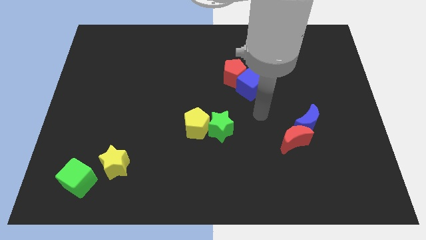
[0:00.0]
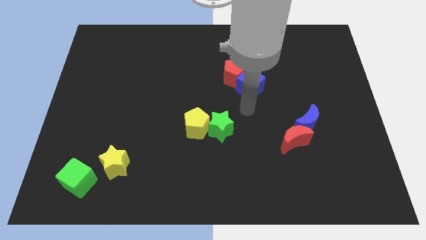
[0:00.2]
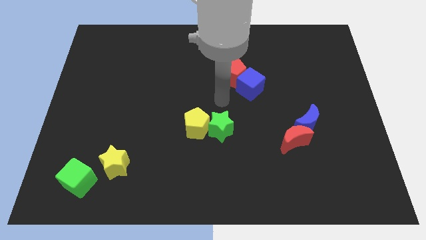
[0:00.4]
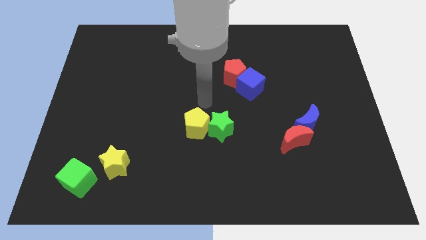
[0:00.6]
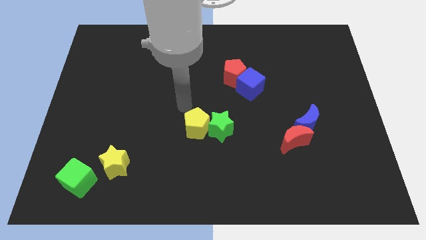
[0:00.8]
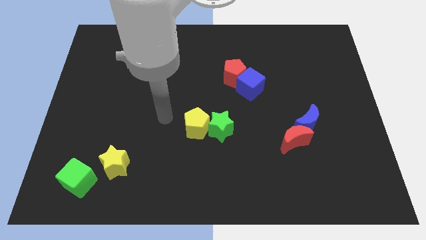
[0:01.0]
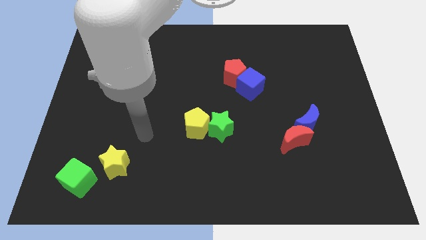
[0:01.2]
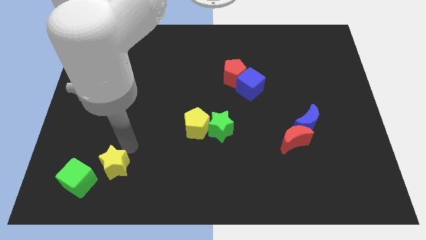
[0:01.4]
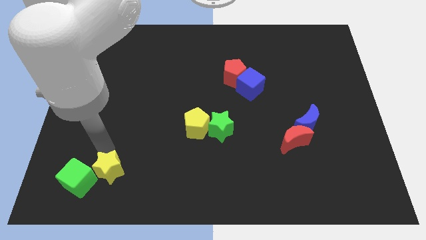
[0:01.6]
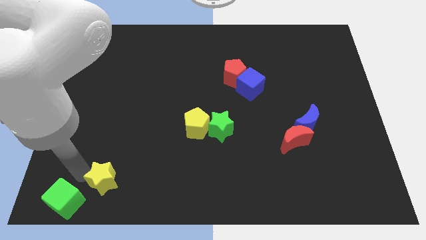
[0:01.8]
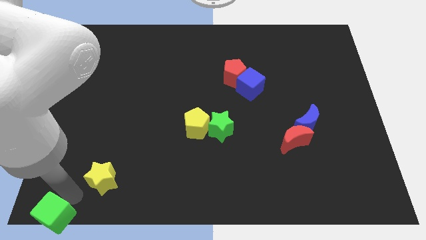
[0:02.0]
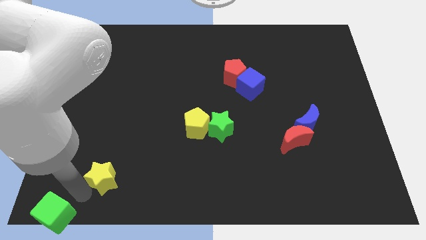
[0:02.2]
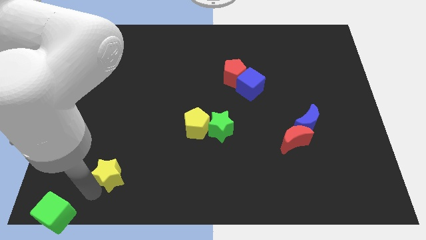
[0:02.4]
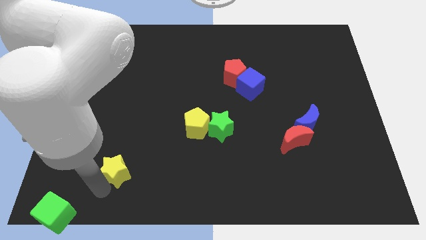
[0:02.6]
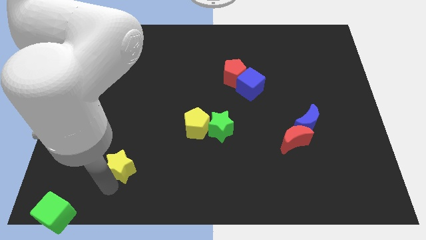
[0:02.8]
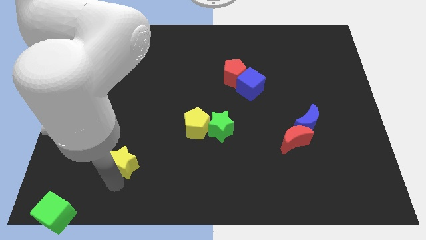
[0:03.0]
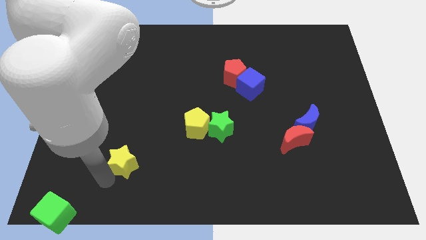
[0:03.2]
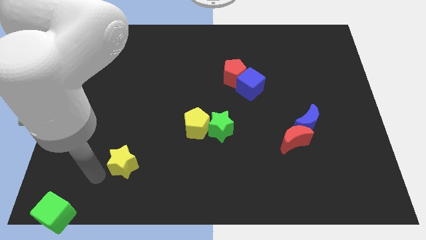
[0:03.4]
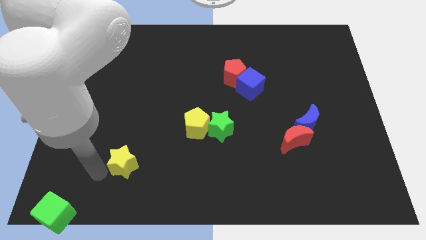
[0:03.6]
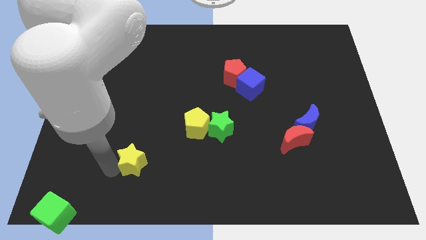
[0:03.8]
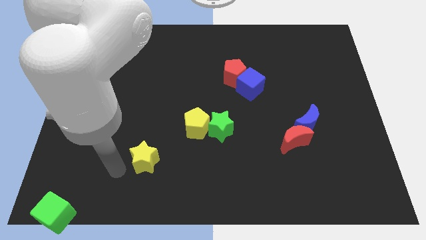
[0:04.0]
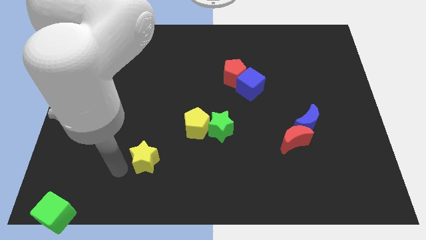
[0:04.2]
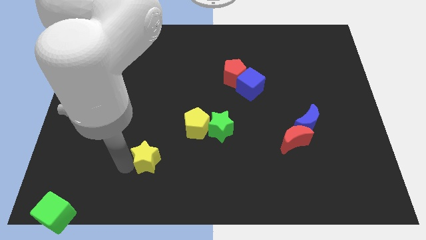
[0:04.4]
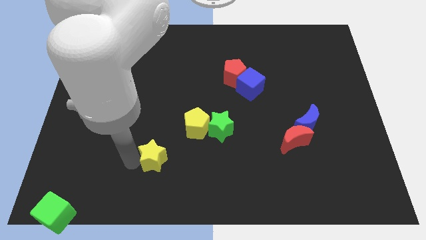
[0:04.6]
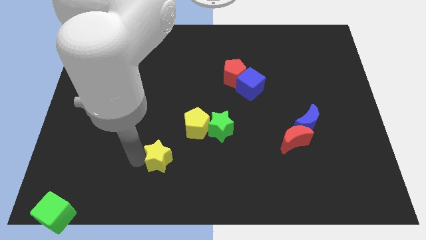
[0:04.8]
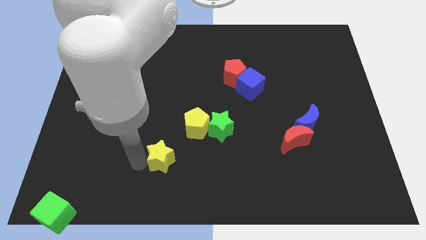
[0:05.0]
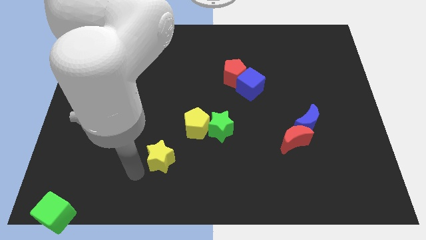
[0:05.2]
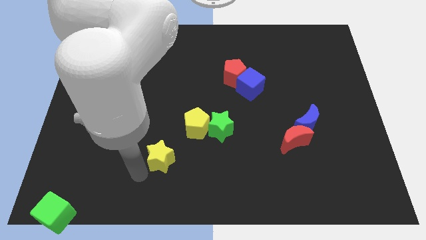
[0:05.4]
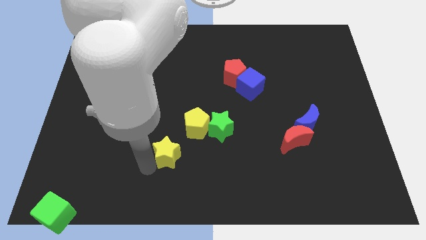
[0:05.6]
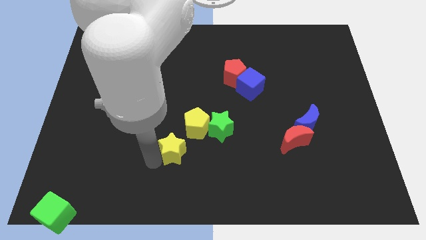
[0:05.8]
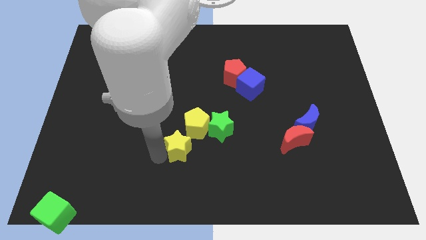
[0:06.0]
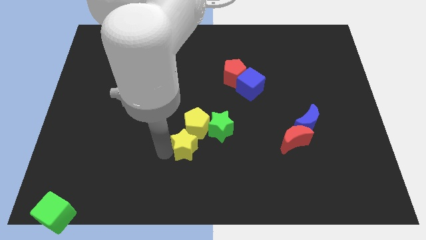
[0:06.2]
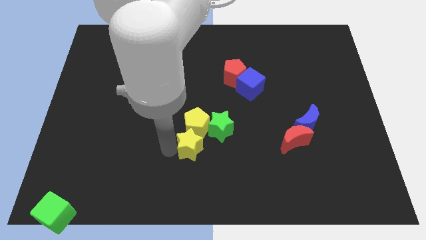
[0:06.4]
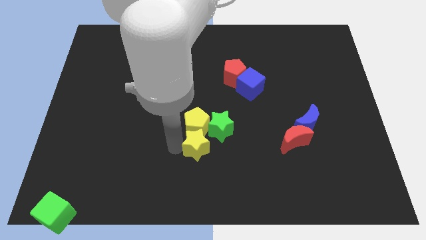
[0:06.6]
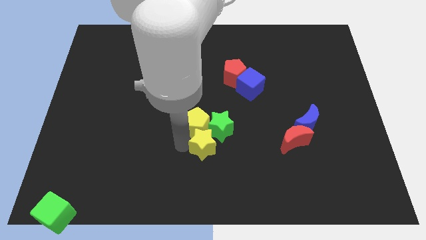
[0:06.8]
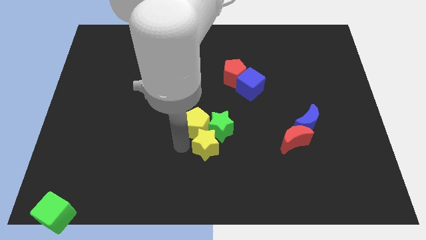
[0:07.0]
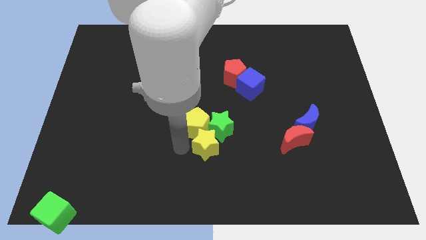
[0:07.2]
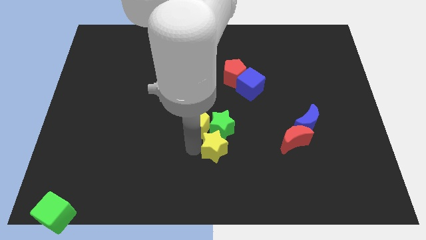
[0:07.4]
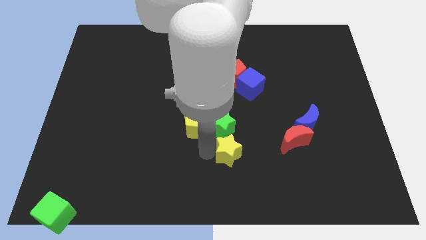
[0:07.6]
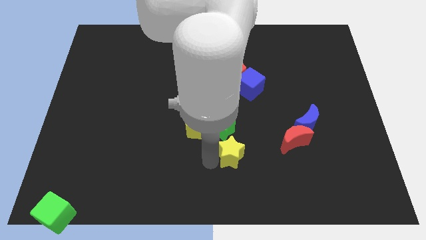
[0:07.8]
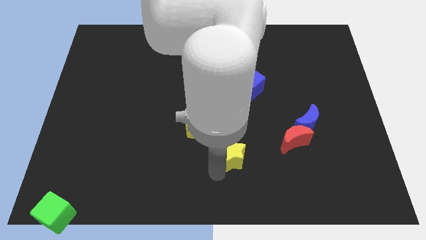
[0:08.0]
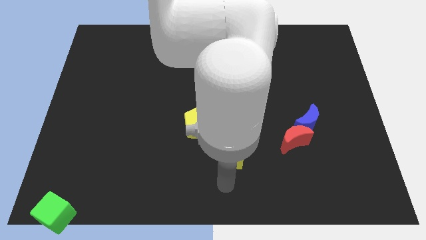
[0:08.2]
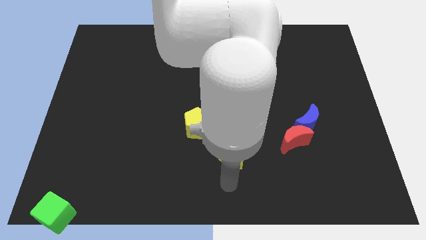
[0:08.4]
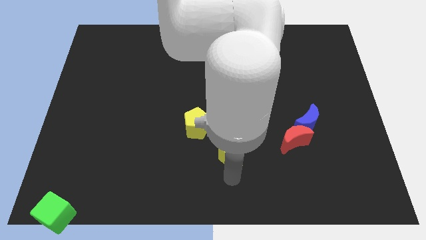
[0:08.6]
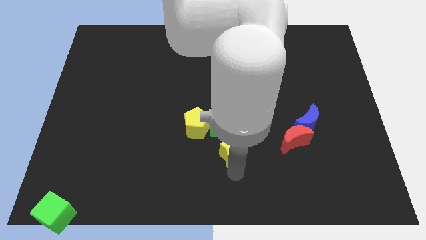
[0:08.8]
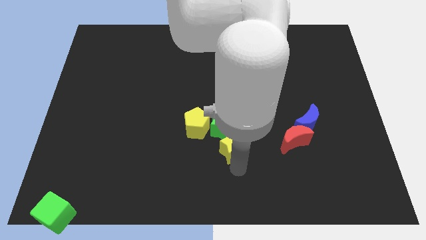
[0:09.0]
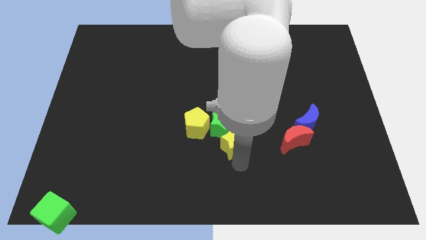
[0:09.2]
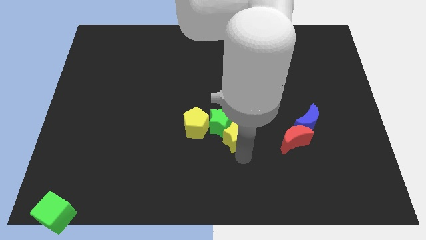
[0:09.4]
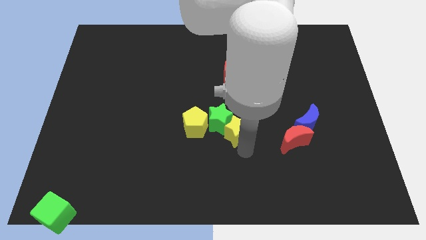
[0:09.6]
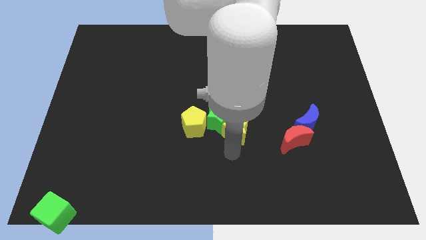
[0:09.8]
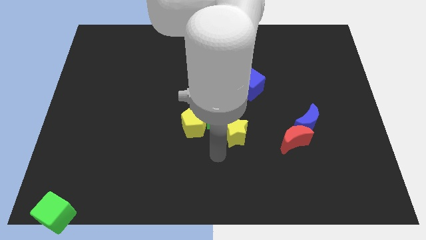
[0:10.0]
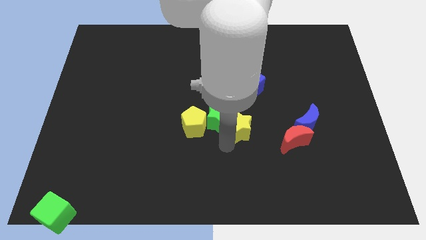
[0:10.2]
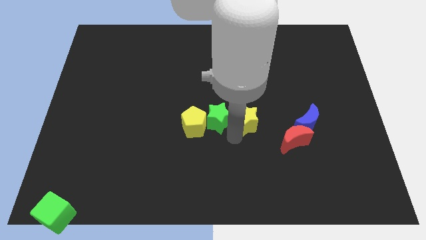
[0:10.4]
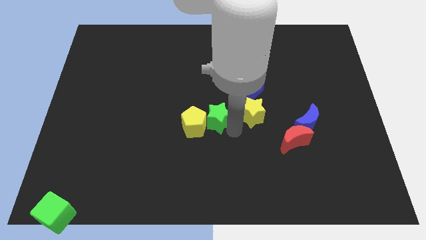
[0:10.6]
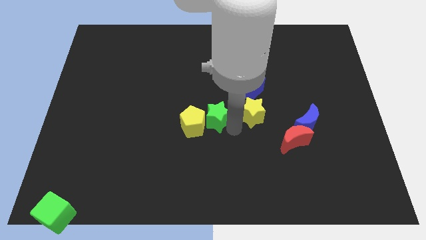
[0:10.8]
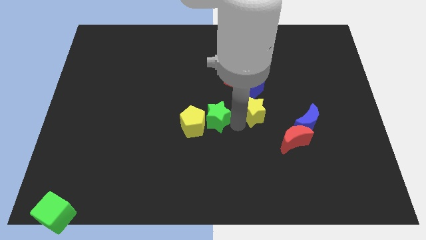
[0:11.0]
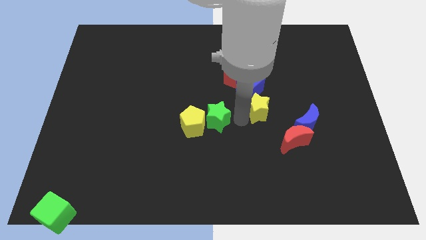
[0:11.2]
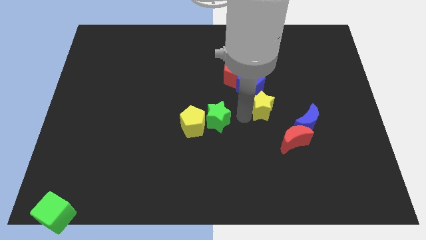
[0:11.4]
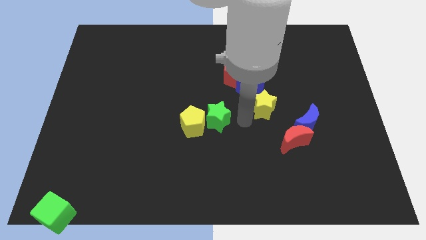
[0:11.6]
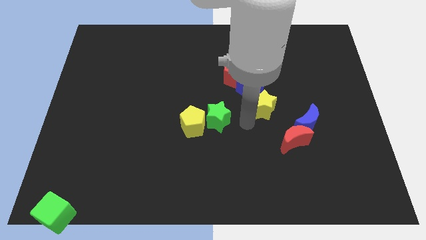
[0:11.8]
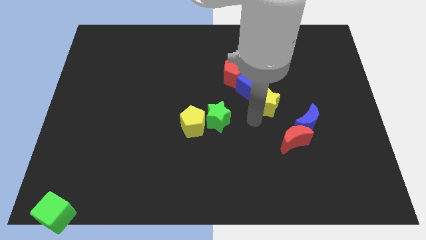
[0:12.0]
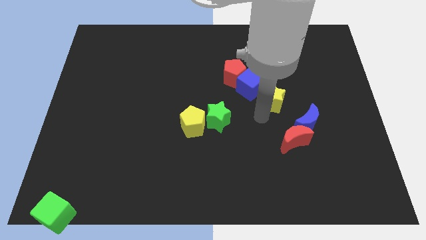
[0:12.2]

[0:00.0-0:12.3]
put the yellow star to the right side of the blue cube

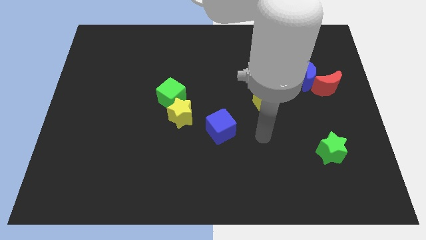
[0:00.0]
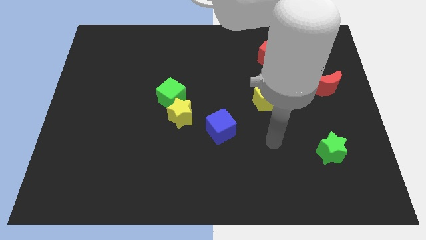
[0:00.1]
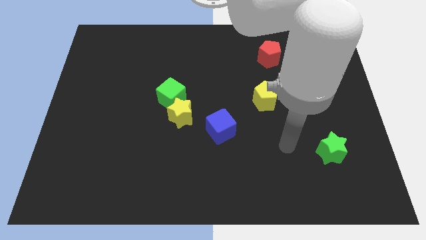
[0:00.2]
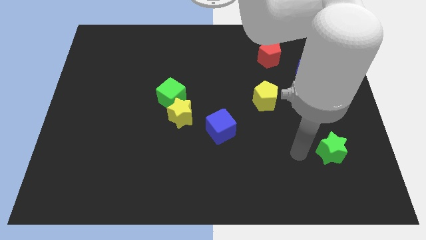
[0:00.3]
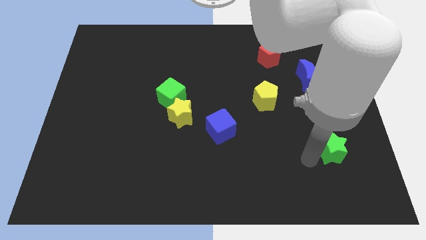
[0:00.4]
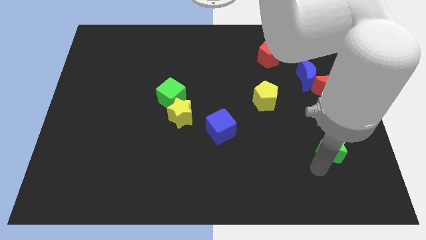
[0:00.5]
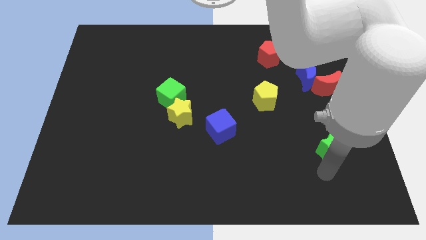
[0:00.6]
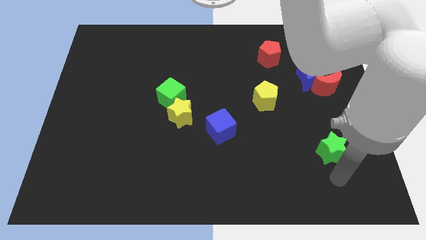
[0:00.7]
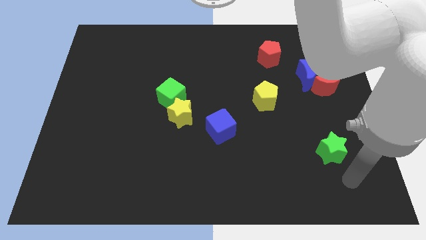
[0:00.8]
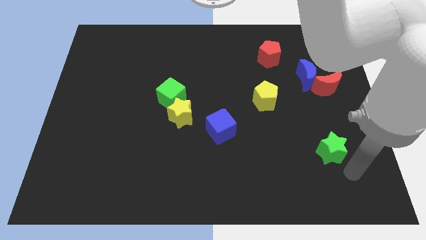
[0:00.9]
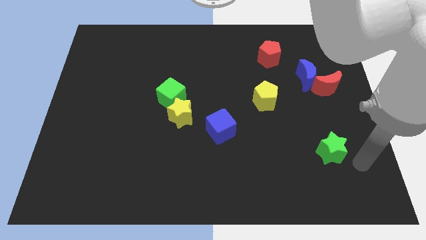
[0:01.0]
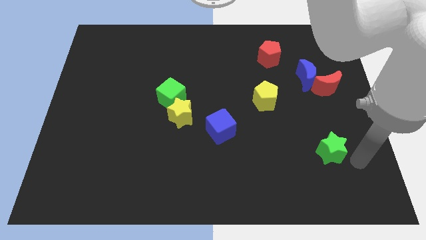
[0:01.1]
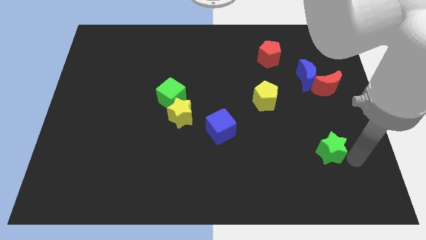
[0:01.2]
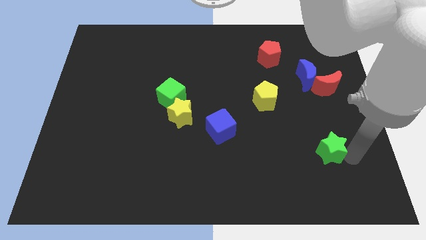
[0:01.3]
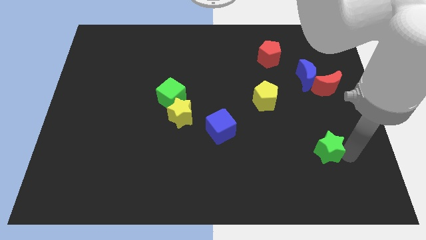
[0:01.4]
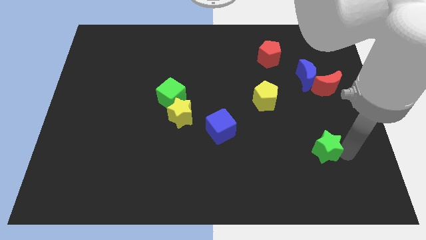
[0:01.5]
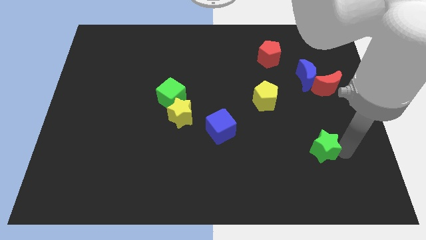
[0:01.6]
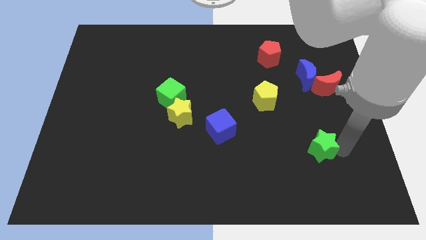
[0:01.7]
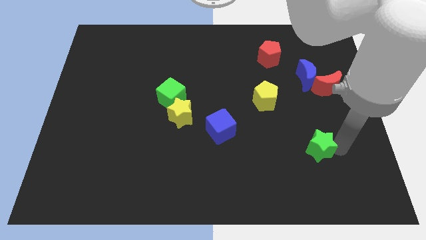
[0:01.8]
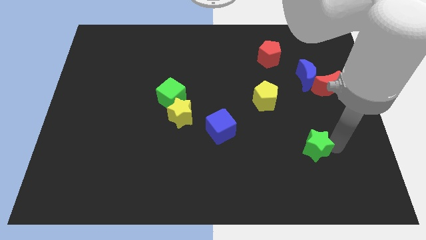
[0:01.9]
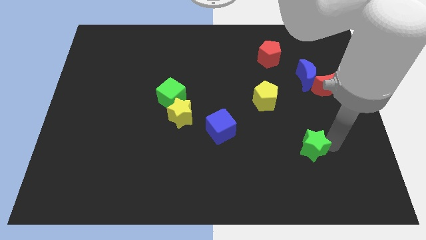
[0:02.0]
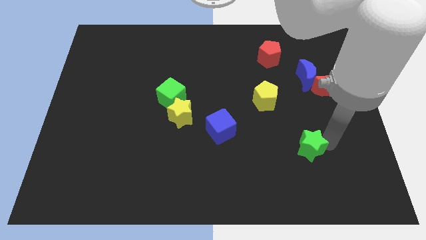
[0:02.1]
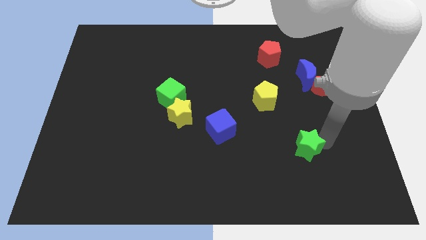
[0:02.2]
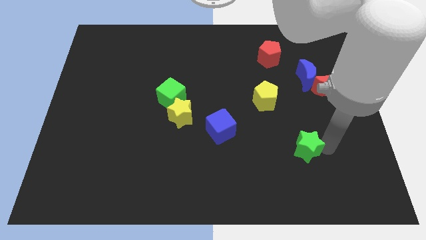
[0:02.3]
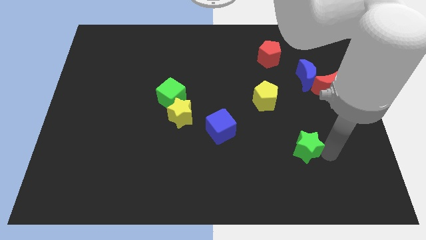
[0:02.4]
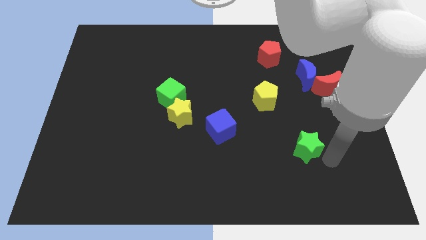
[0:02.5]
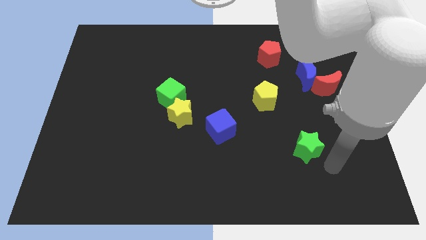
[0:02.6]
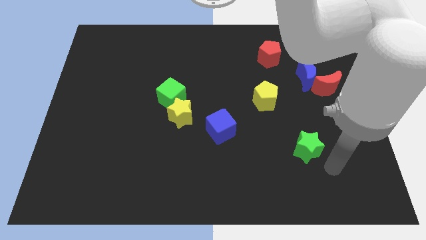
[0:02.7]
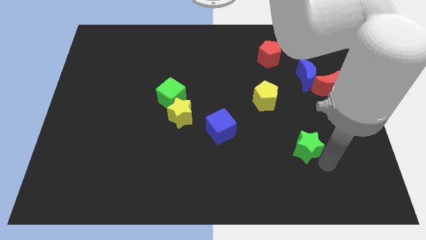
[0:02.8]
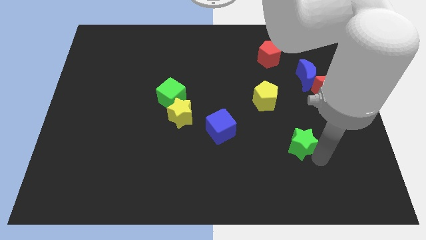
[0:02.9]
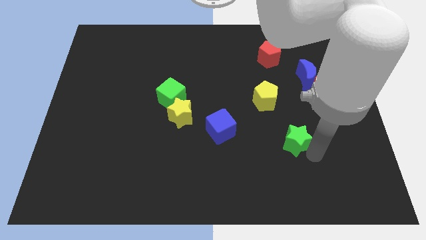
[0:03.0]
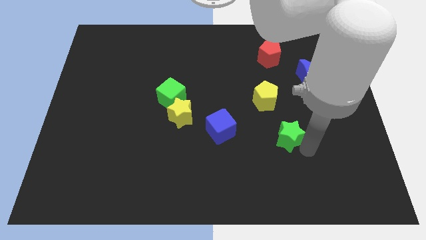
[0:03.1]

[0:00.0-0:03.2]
move the green star to the right of the blue cube
